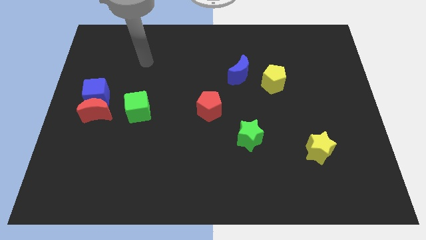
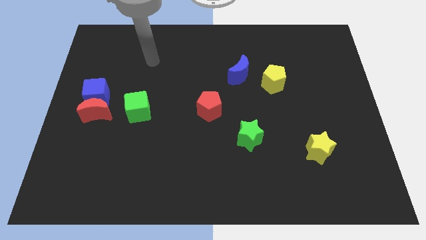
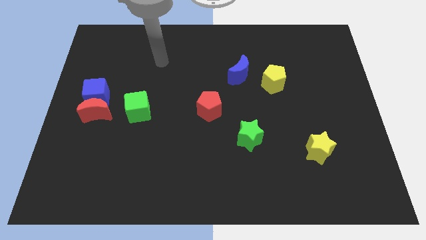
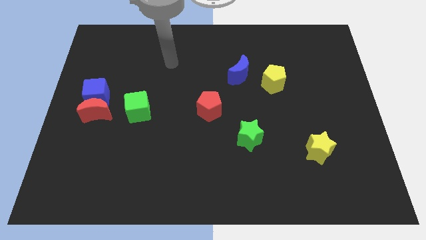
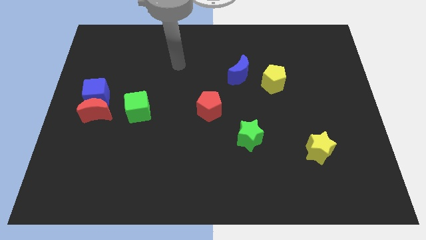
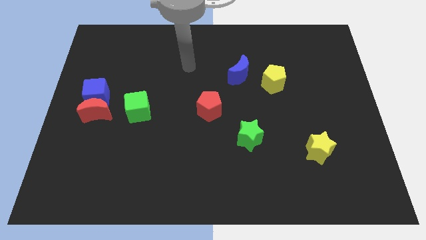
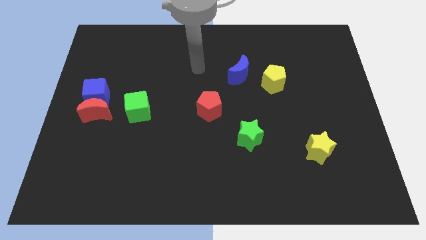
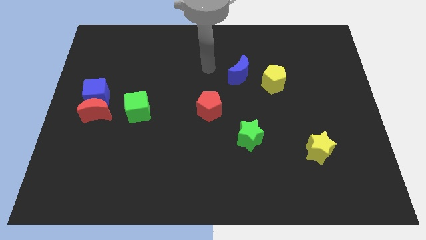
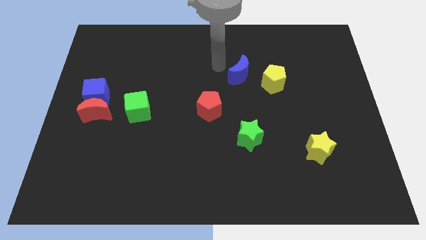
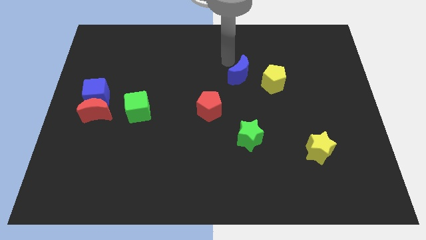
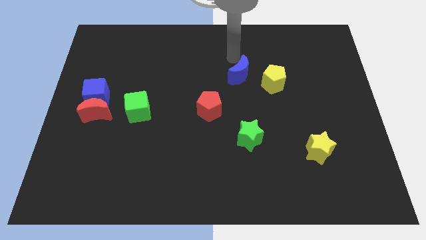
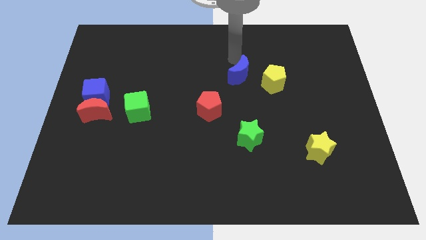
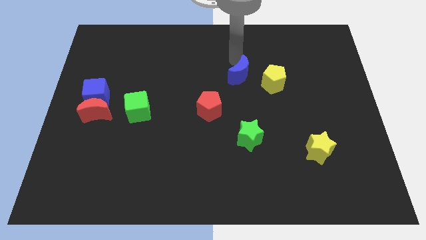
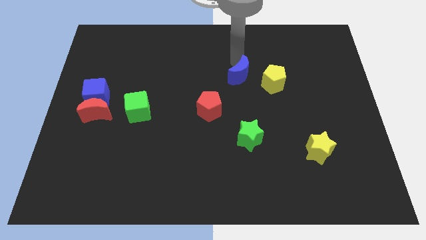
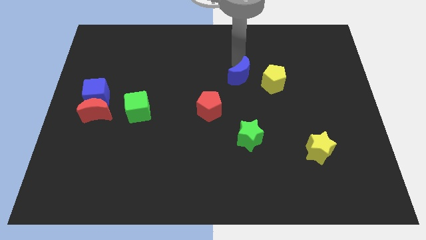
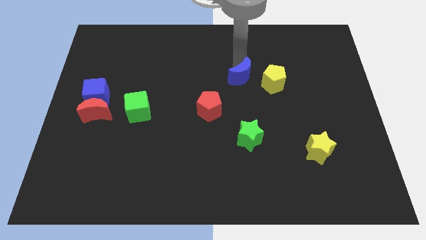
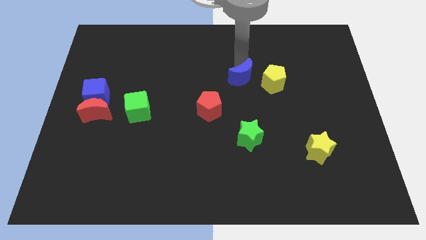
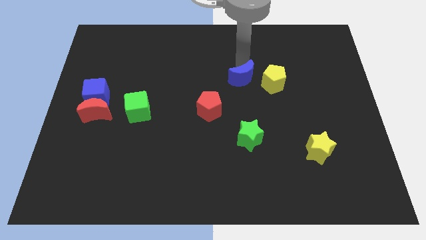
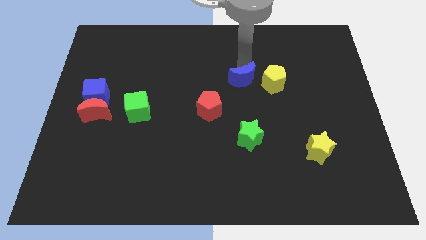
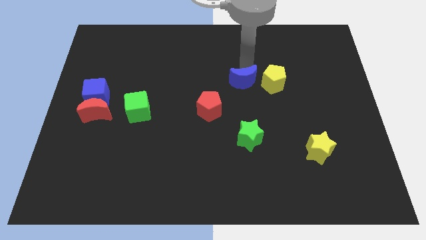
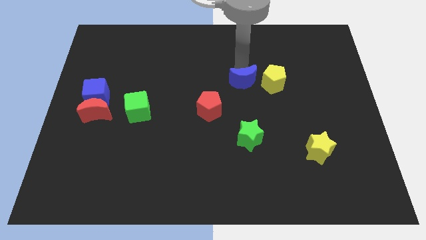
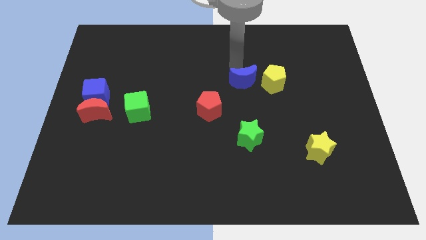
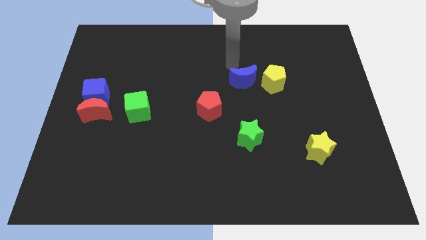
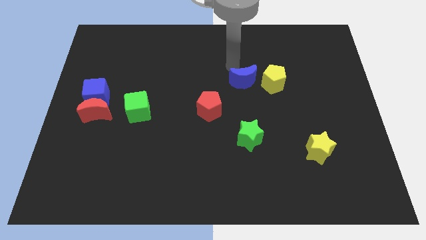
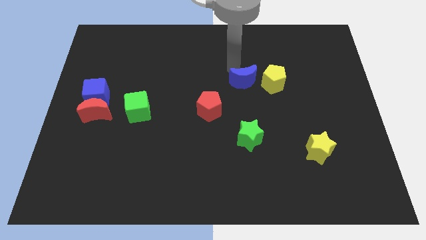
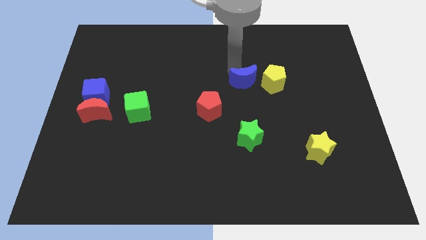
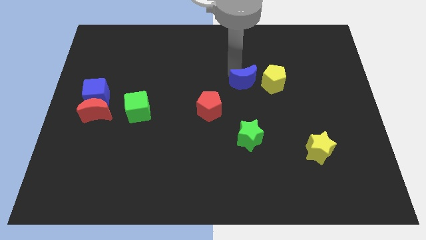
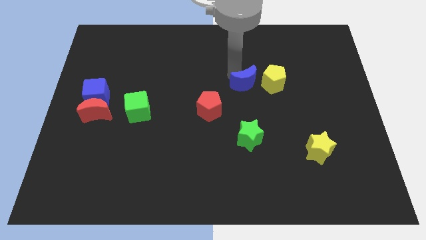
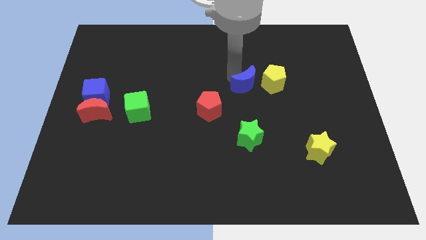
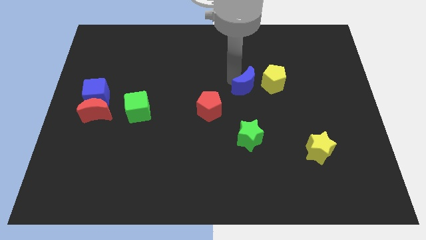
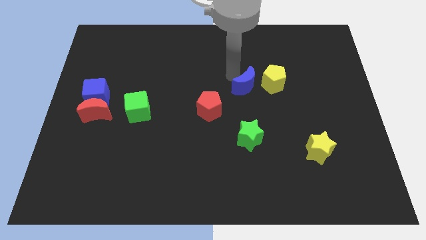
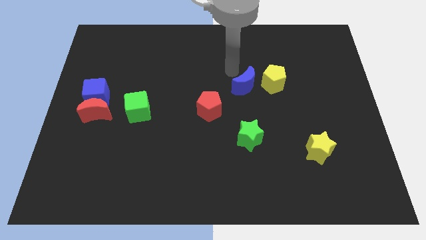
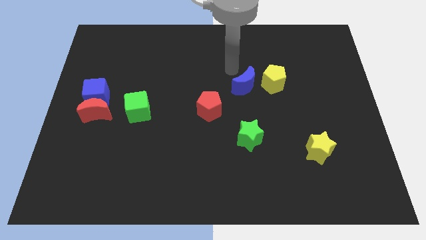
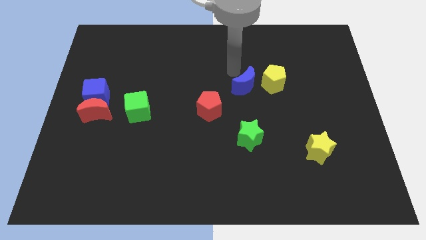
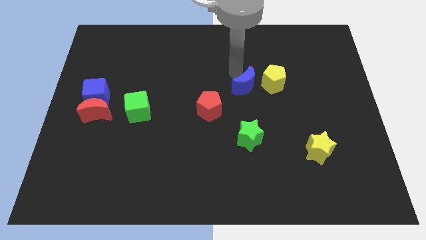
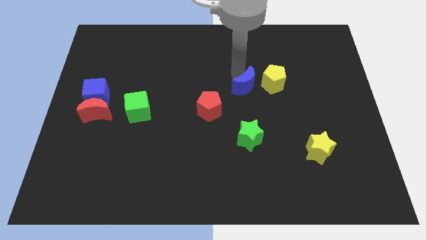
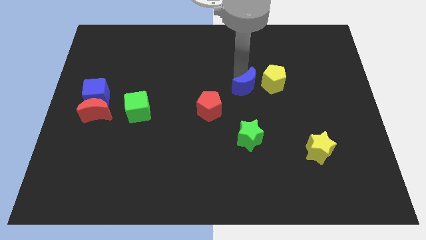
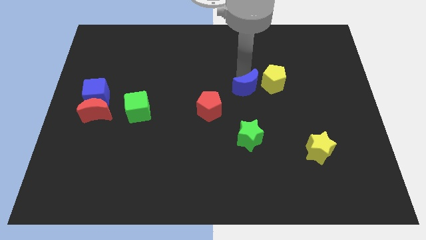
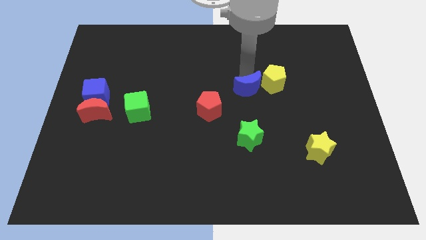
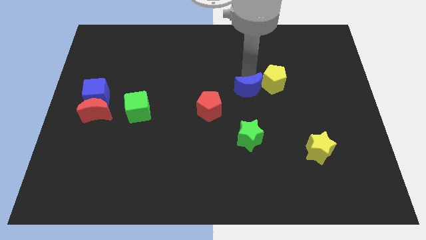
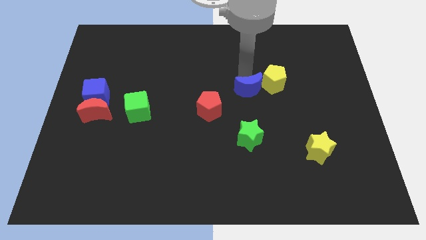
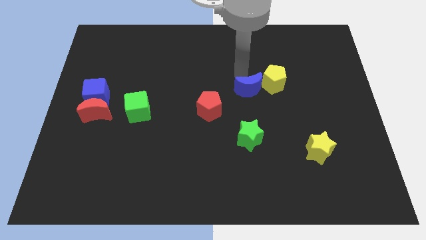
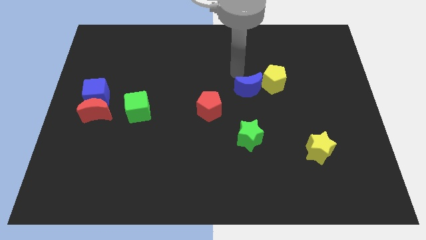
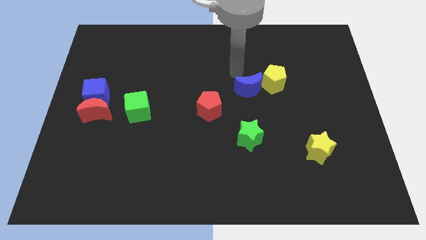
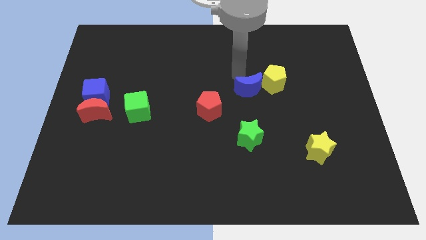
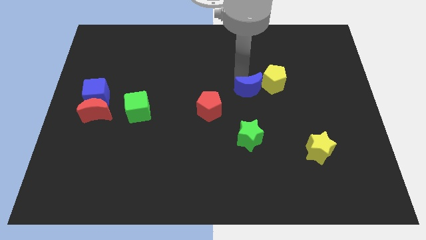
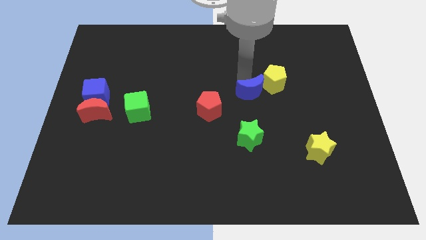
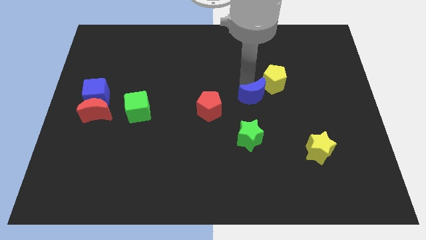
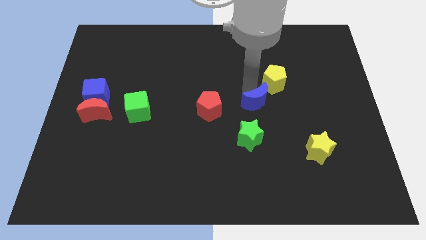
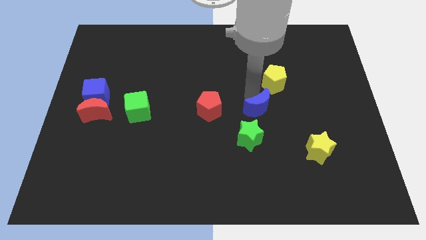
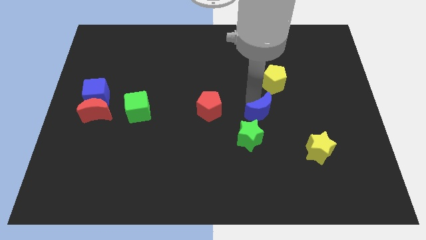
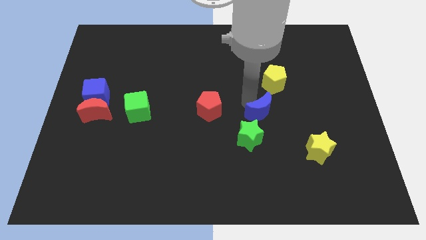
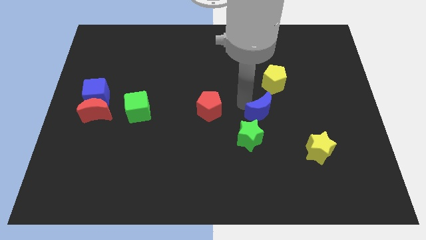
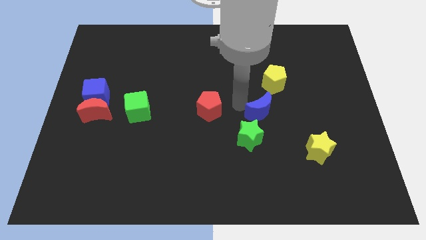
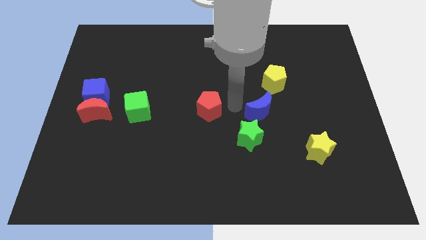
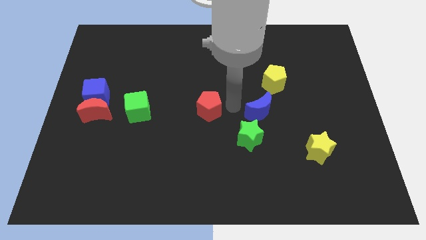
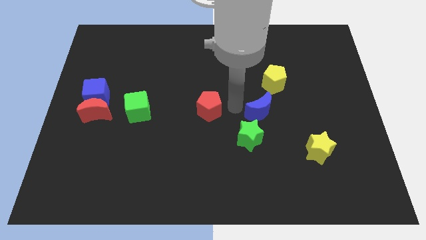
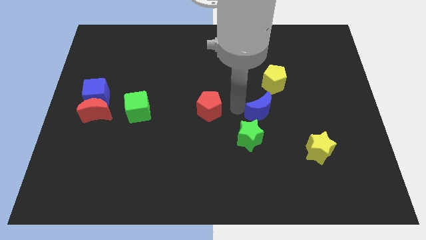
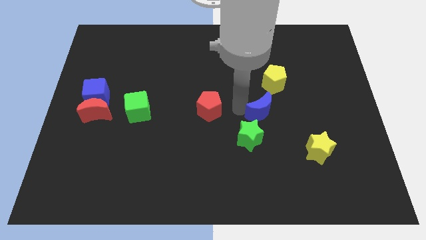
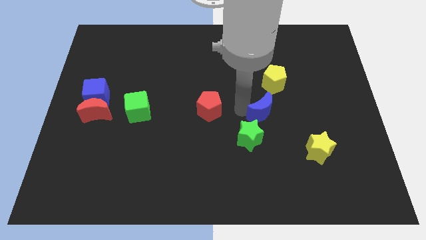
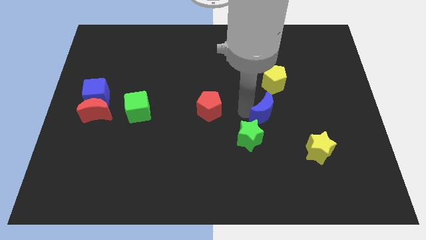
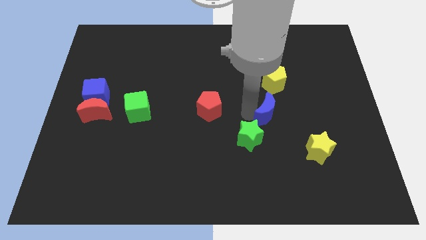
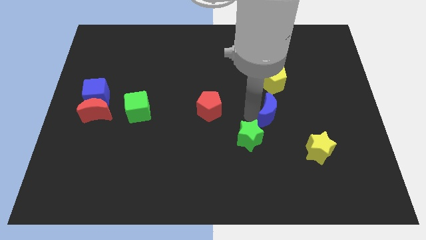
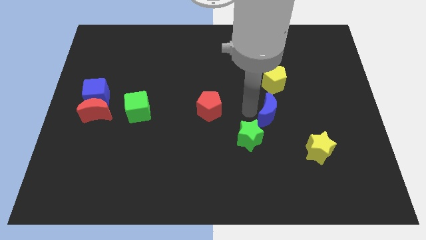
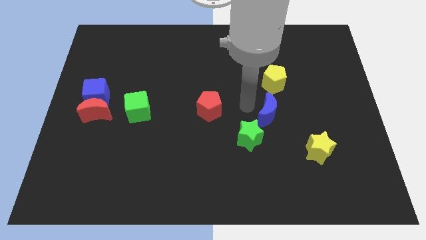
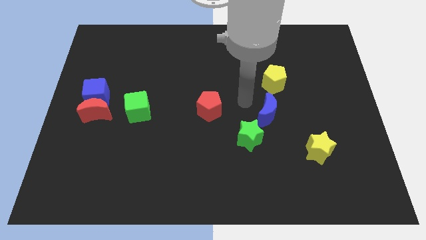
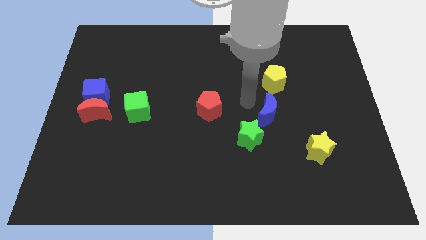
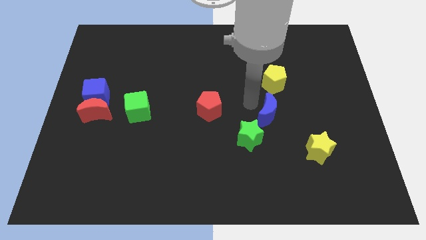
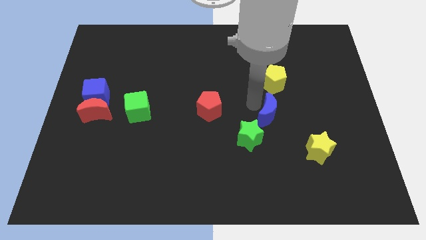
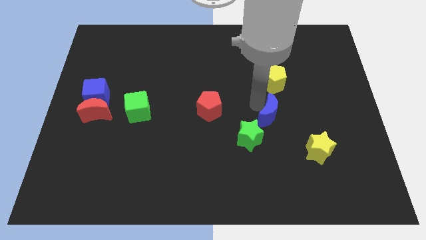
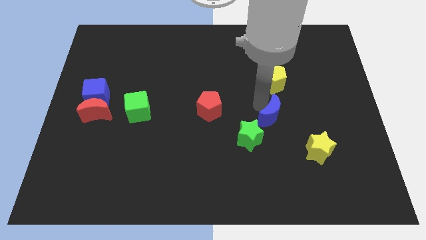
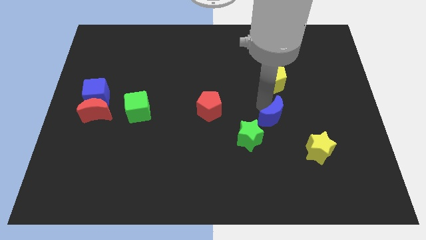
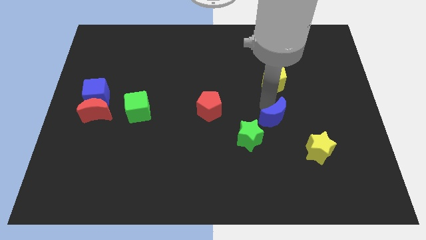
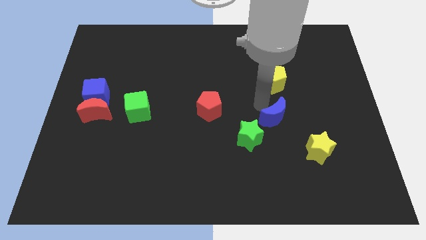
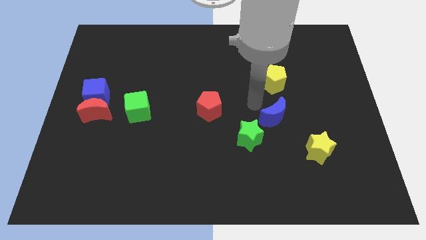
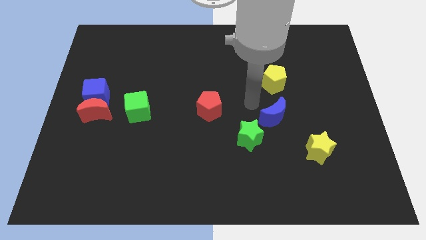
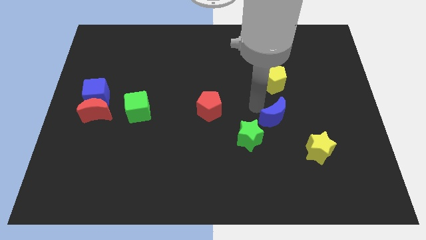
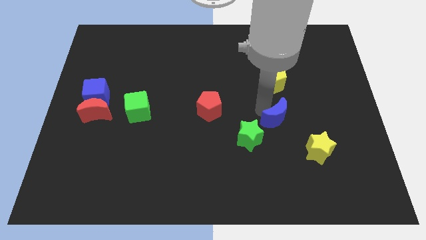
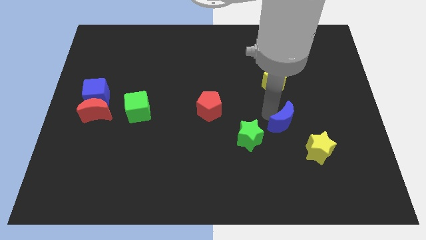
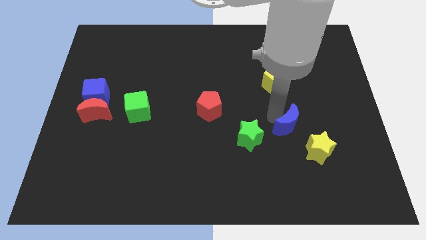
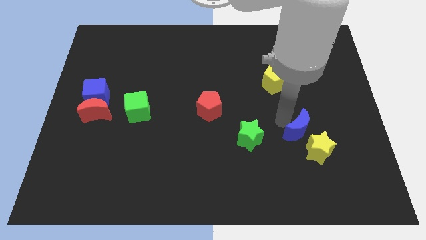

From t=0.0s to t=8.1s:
put the blue moon towards the yellow star
